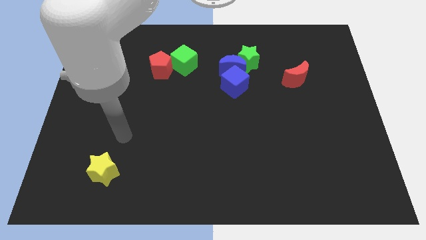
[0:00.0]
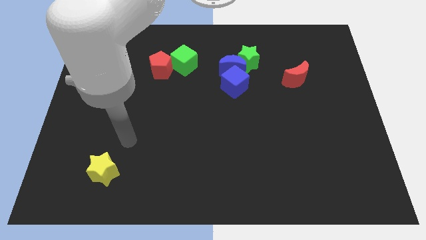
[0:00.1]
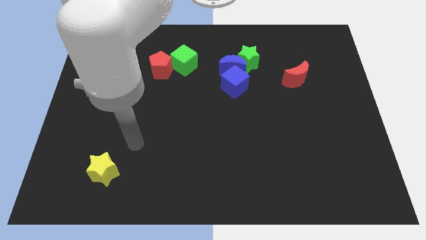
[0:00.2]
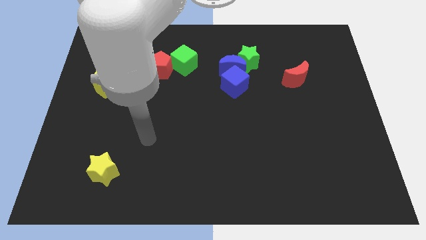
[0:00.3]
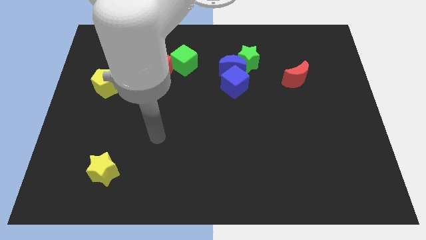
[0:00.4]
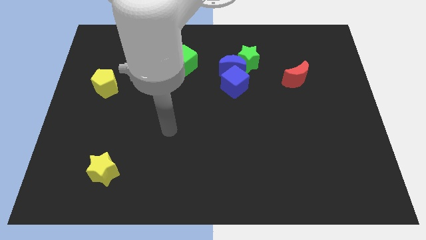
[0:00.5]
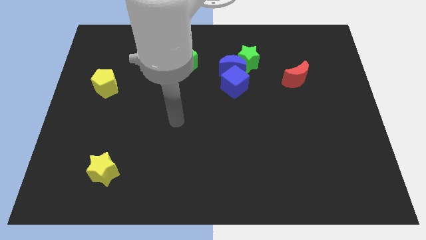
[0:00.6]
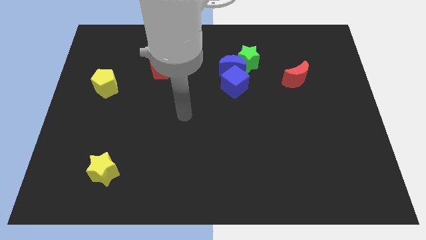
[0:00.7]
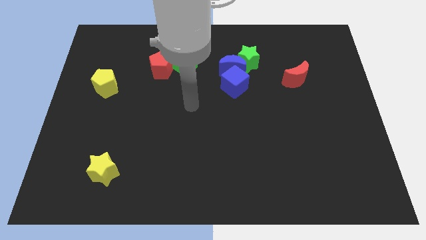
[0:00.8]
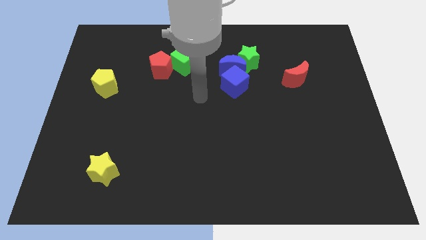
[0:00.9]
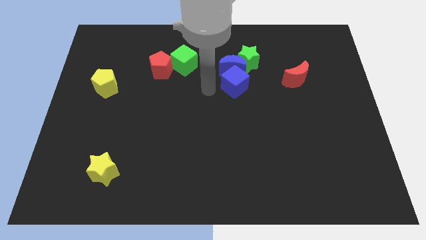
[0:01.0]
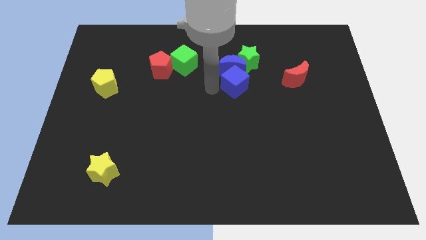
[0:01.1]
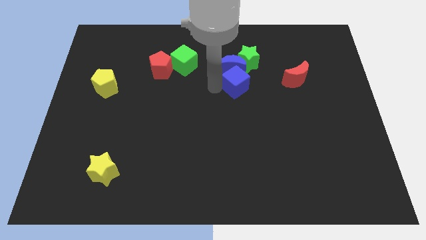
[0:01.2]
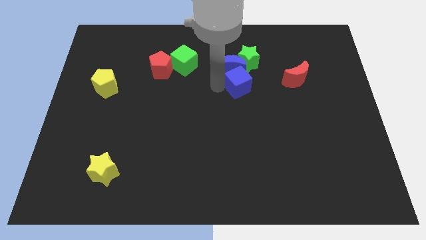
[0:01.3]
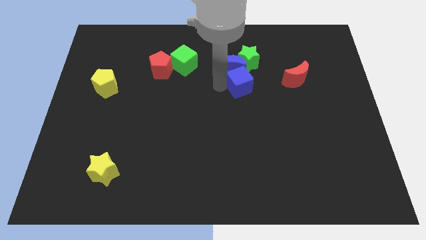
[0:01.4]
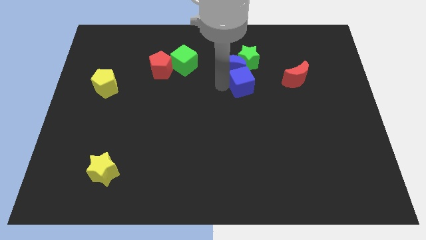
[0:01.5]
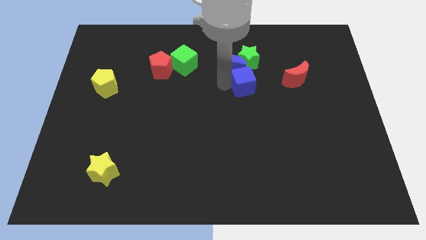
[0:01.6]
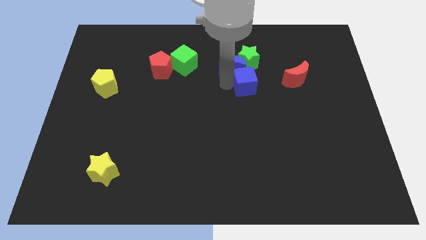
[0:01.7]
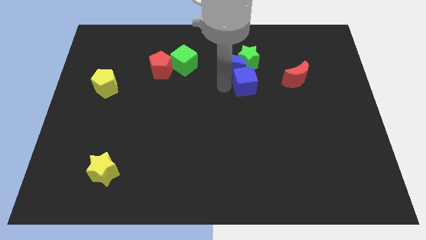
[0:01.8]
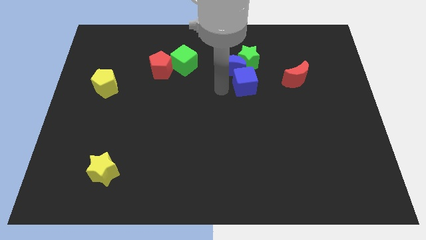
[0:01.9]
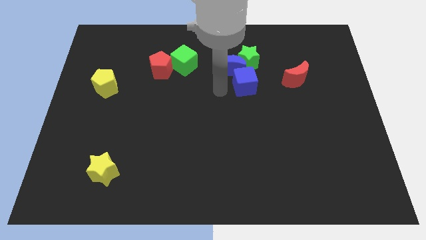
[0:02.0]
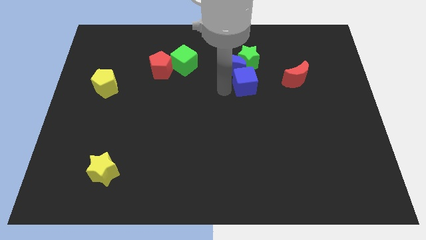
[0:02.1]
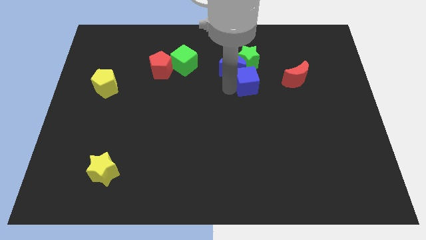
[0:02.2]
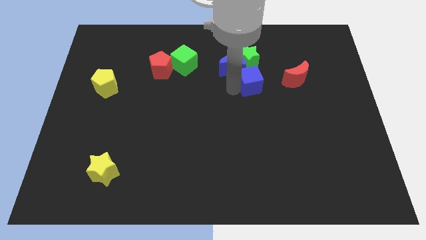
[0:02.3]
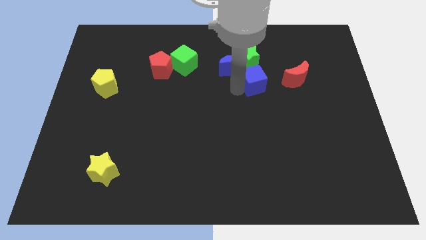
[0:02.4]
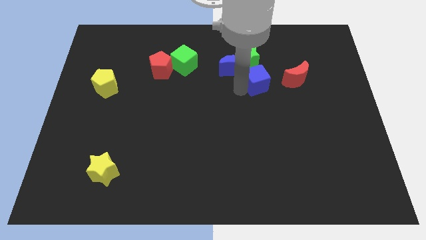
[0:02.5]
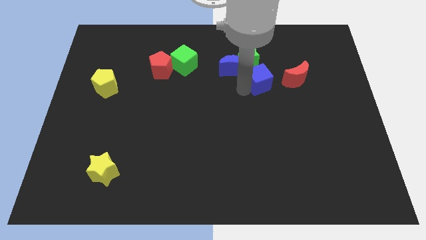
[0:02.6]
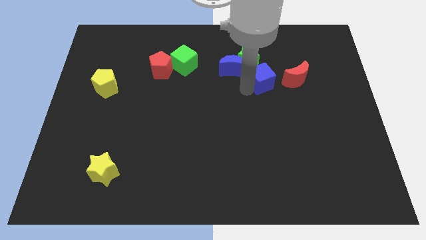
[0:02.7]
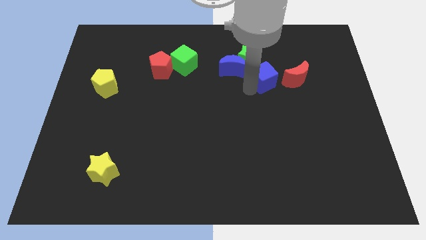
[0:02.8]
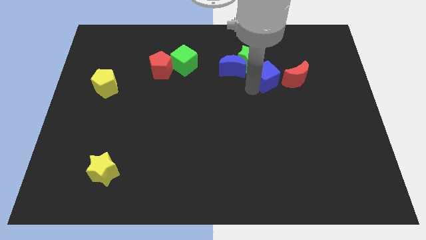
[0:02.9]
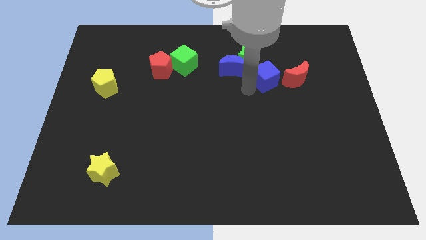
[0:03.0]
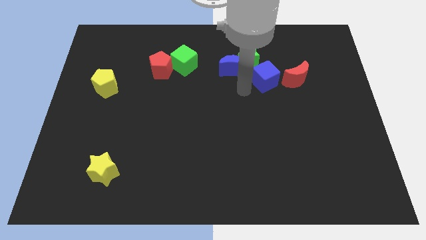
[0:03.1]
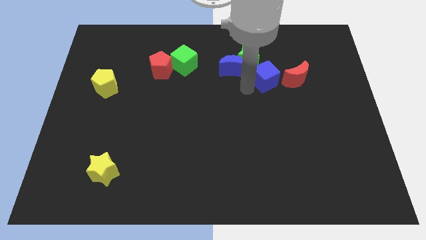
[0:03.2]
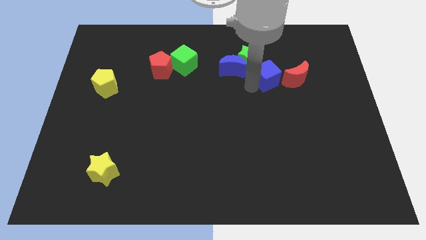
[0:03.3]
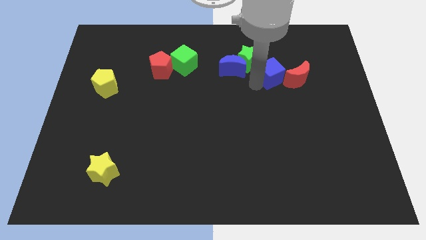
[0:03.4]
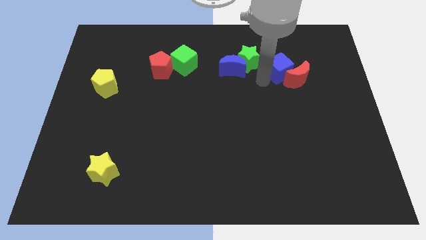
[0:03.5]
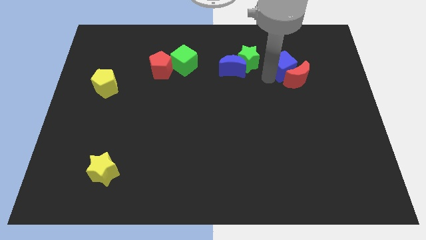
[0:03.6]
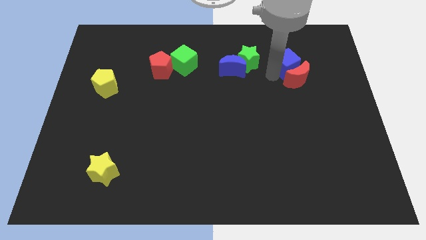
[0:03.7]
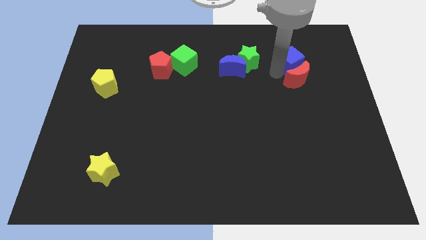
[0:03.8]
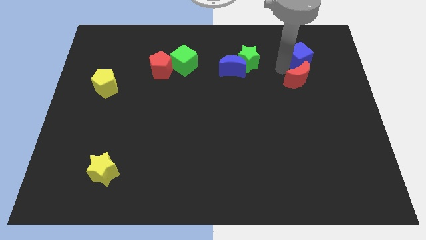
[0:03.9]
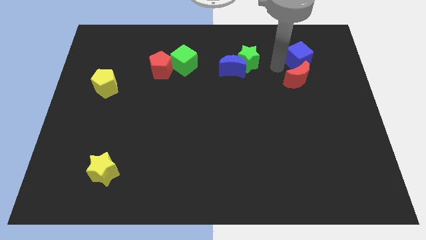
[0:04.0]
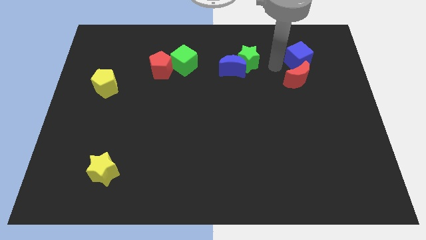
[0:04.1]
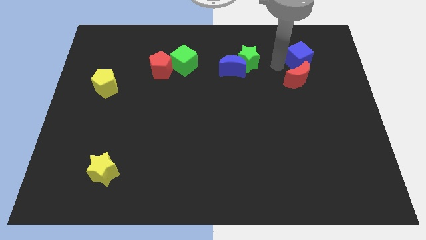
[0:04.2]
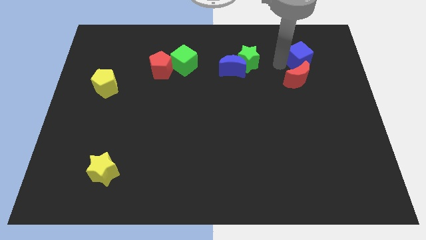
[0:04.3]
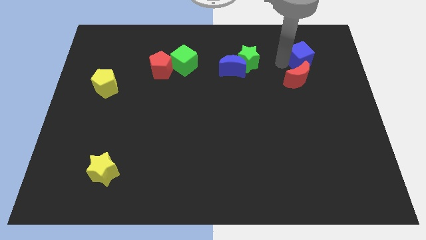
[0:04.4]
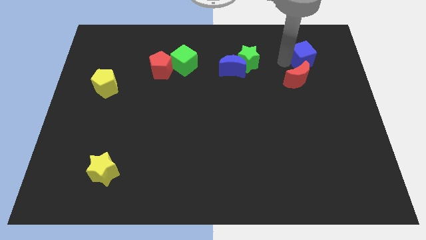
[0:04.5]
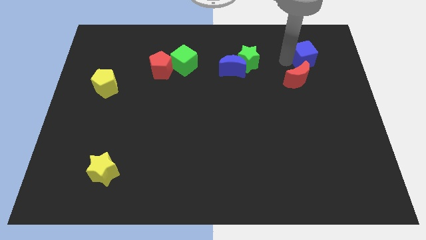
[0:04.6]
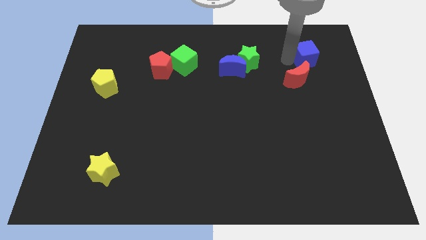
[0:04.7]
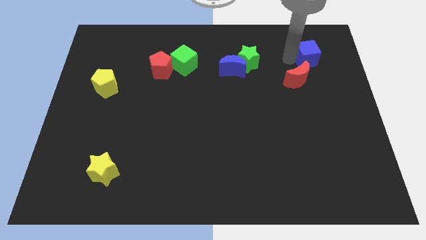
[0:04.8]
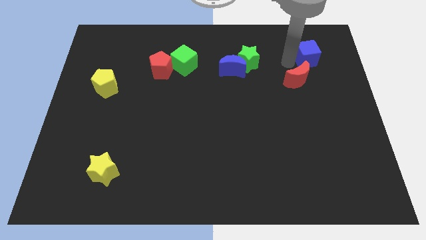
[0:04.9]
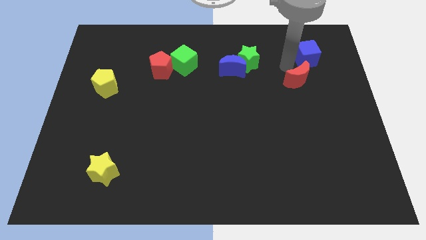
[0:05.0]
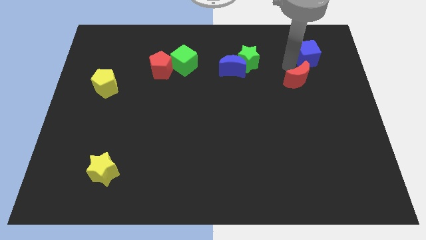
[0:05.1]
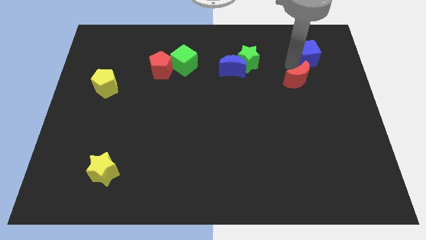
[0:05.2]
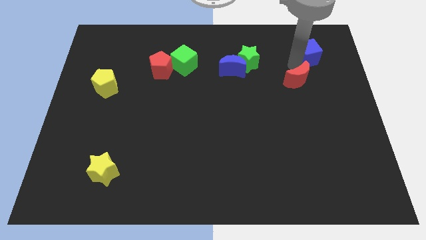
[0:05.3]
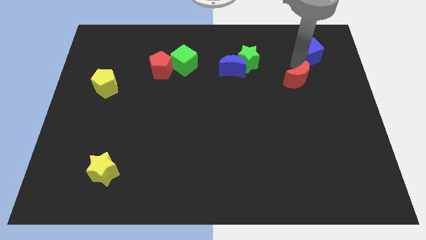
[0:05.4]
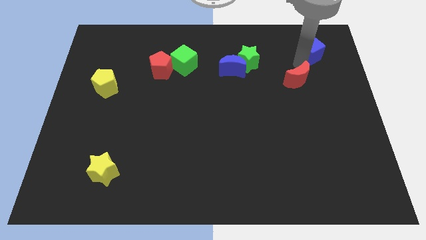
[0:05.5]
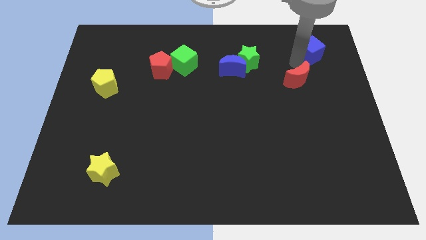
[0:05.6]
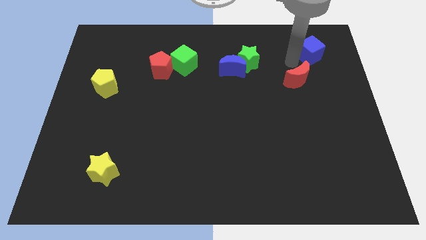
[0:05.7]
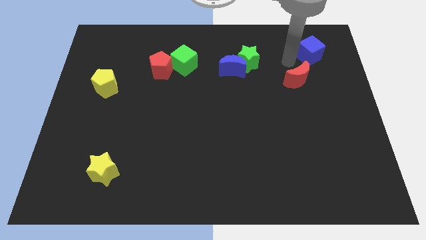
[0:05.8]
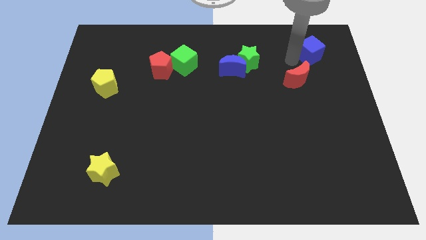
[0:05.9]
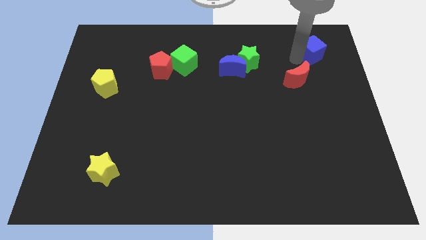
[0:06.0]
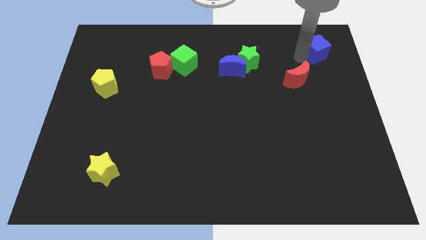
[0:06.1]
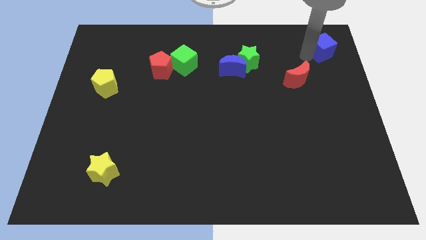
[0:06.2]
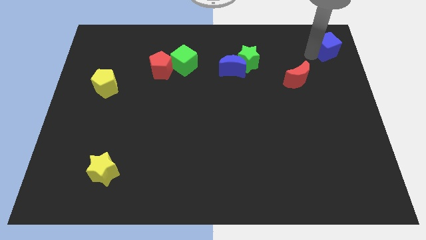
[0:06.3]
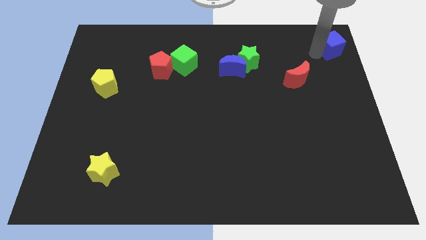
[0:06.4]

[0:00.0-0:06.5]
slide the blue cube to the top right
